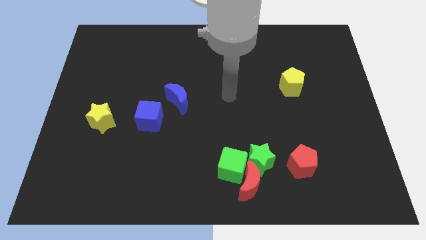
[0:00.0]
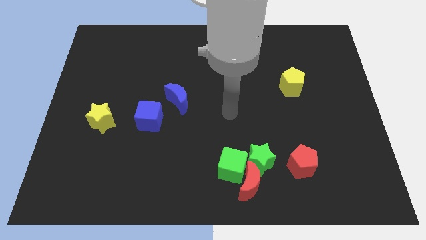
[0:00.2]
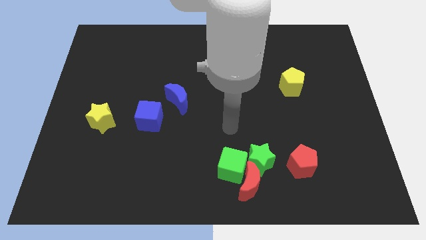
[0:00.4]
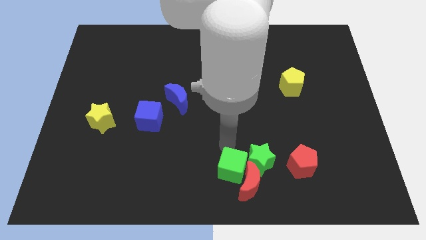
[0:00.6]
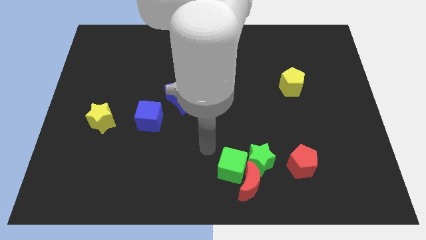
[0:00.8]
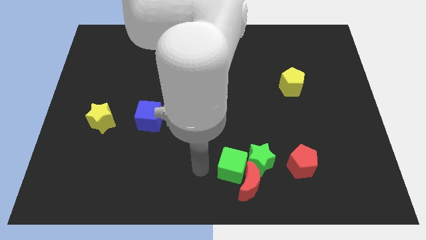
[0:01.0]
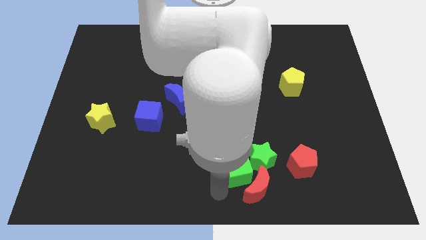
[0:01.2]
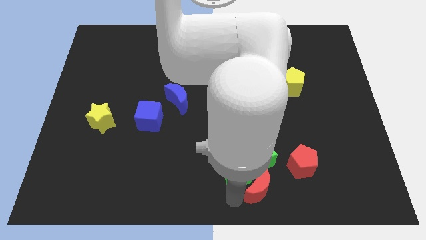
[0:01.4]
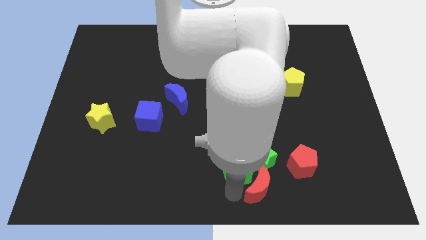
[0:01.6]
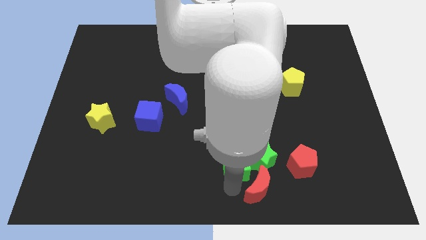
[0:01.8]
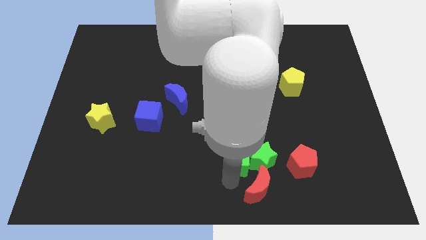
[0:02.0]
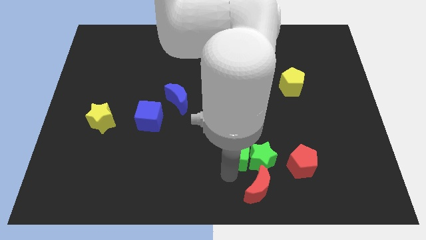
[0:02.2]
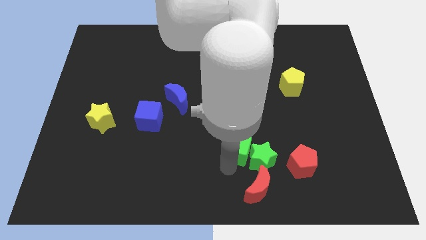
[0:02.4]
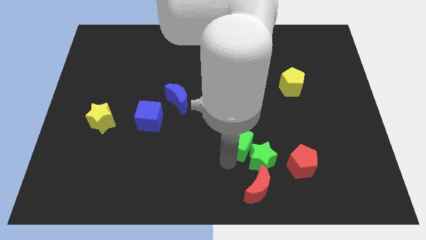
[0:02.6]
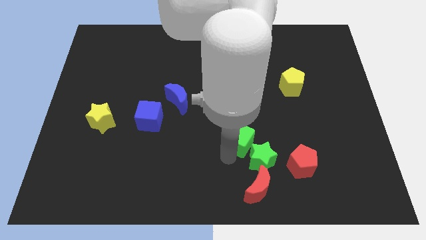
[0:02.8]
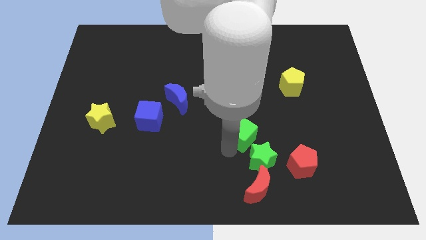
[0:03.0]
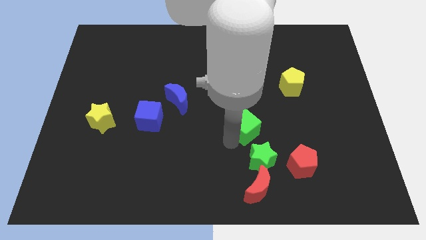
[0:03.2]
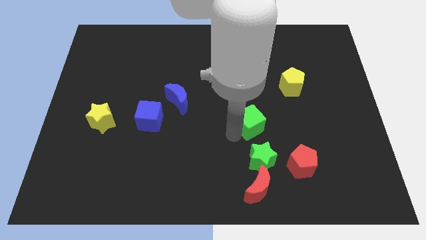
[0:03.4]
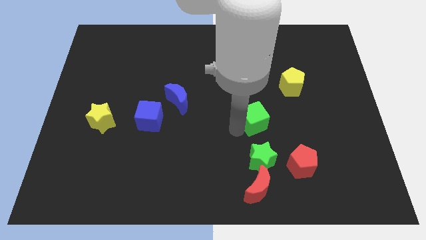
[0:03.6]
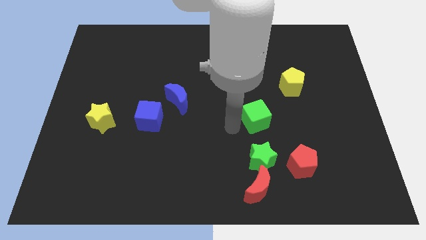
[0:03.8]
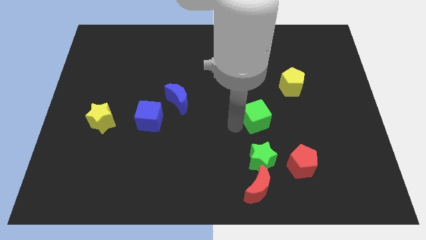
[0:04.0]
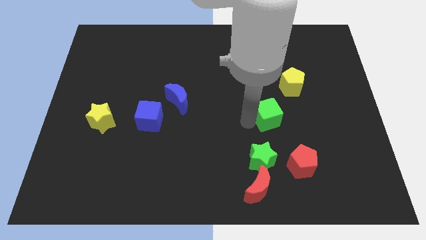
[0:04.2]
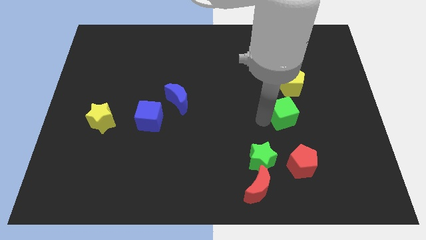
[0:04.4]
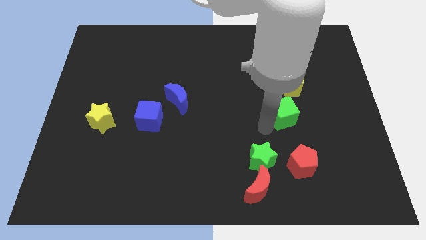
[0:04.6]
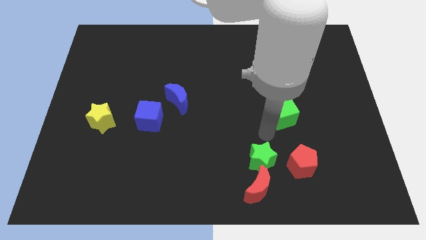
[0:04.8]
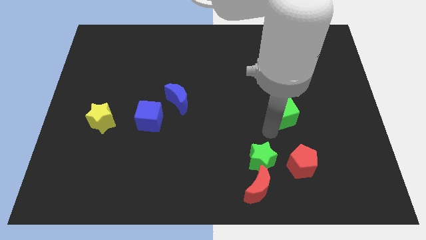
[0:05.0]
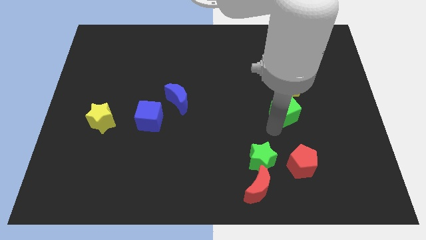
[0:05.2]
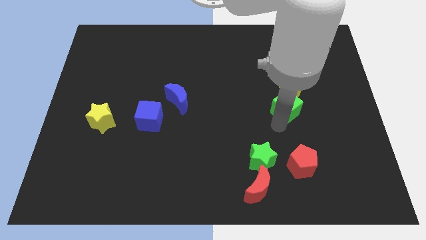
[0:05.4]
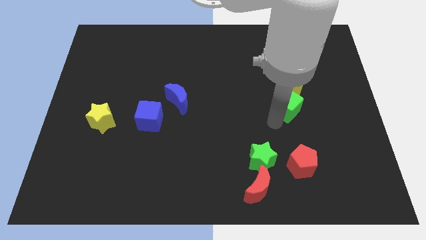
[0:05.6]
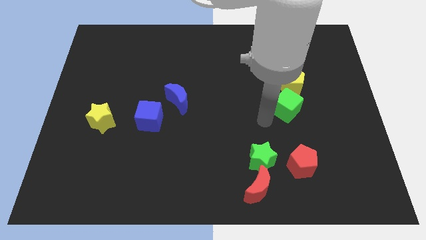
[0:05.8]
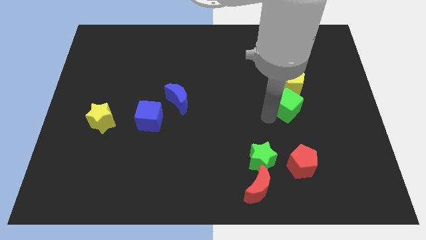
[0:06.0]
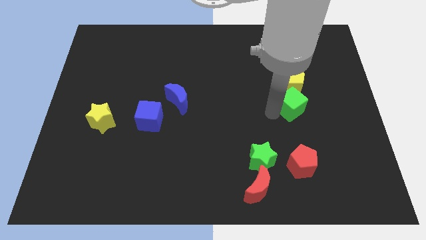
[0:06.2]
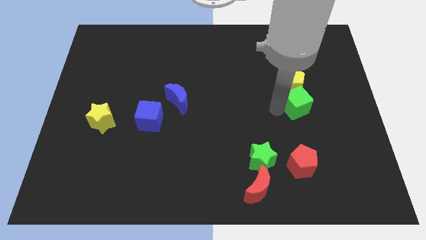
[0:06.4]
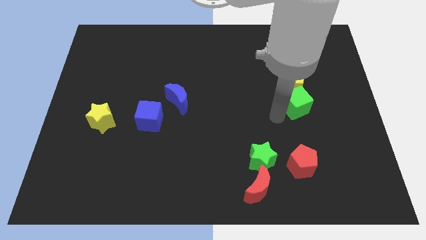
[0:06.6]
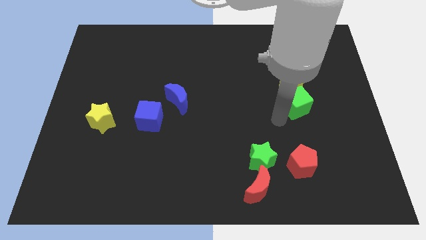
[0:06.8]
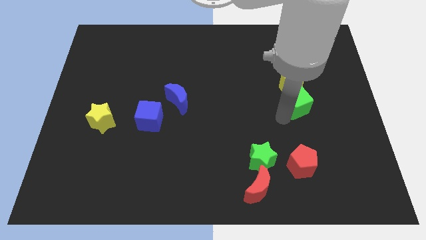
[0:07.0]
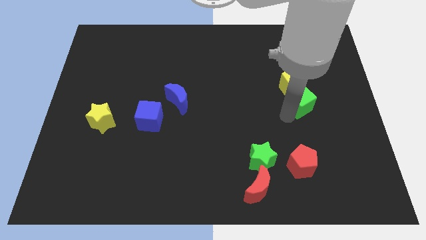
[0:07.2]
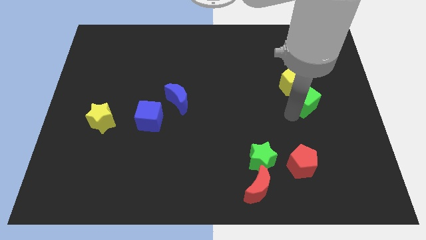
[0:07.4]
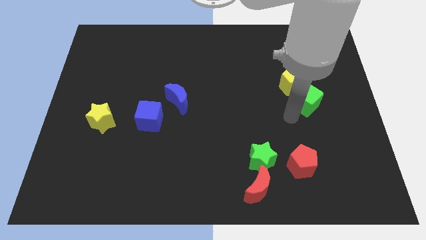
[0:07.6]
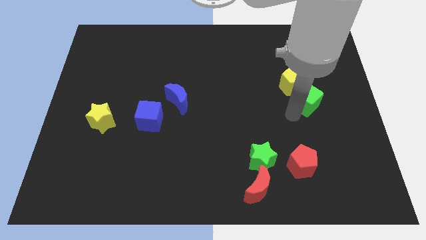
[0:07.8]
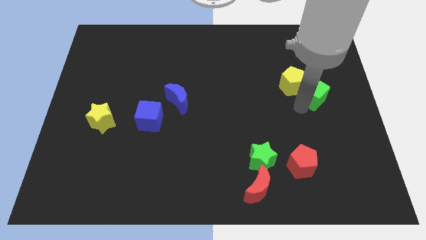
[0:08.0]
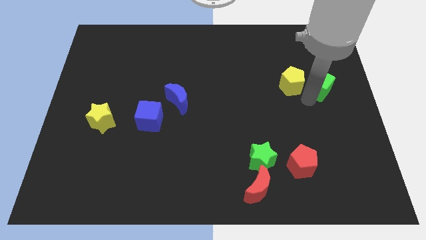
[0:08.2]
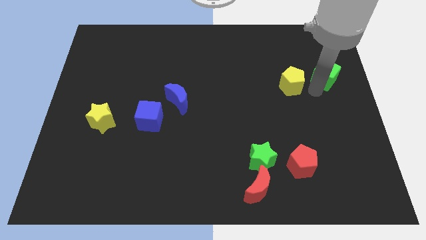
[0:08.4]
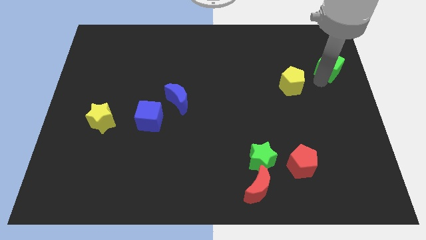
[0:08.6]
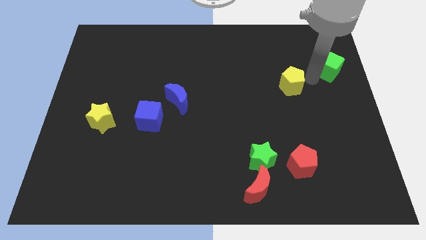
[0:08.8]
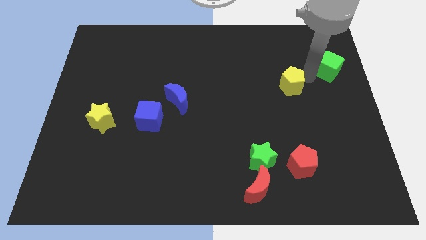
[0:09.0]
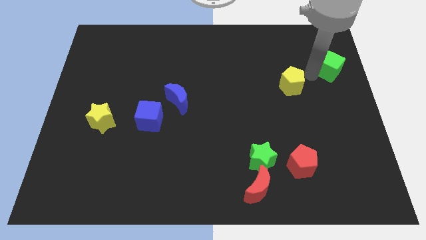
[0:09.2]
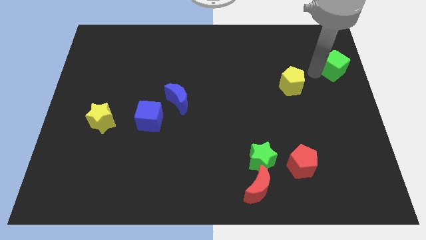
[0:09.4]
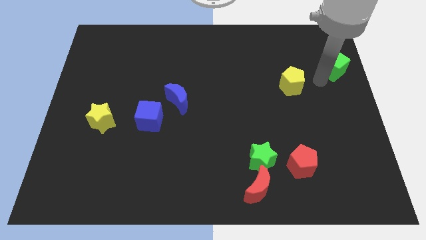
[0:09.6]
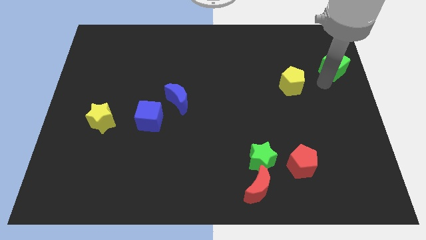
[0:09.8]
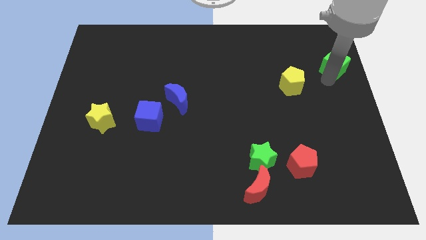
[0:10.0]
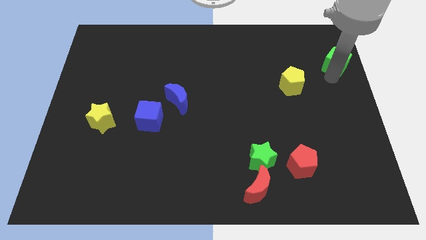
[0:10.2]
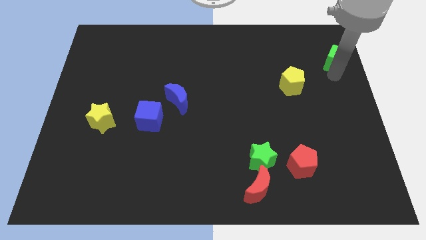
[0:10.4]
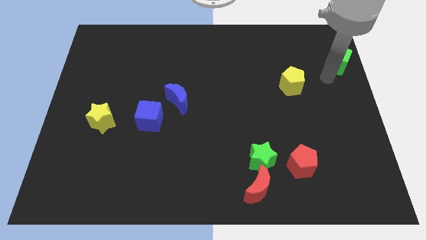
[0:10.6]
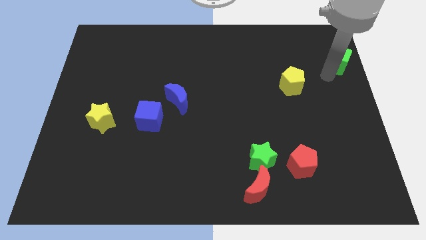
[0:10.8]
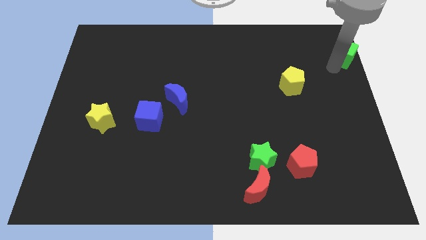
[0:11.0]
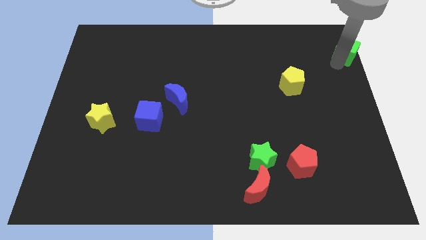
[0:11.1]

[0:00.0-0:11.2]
move the green cube to the top right corner
